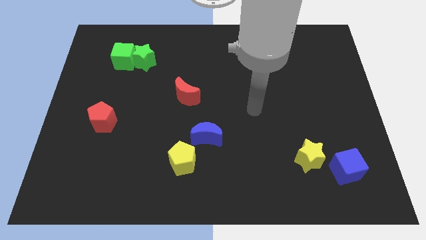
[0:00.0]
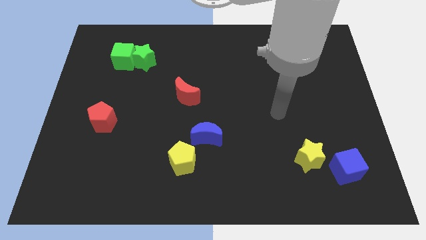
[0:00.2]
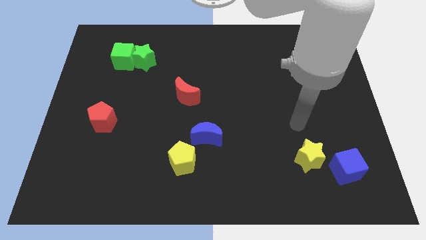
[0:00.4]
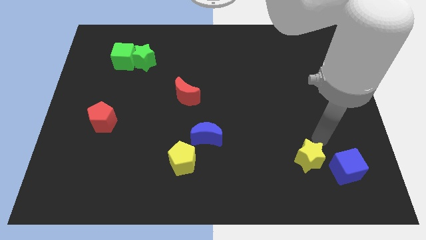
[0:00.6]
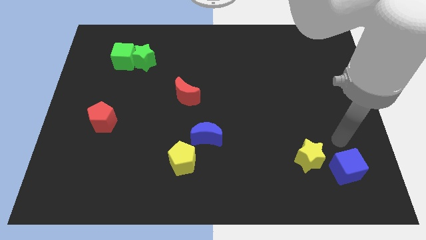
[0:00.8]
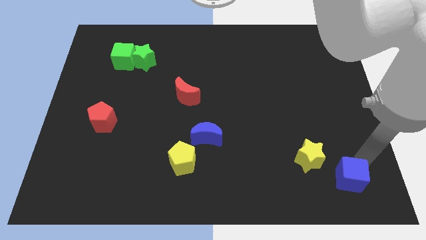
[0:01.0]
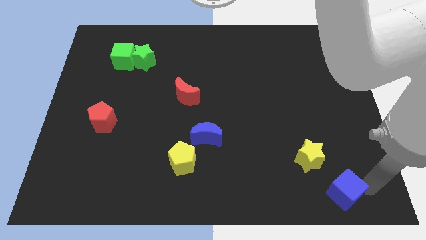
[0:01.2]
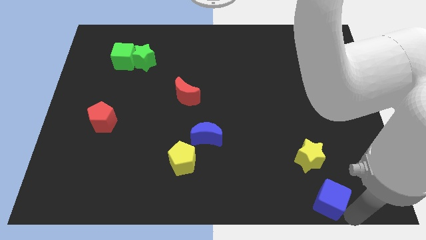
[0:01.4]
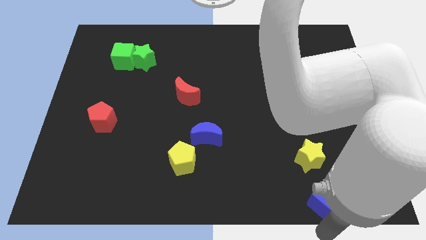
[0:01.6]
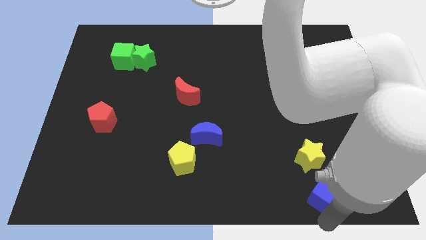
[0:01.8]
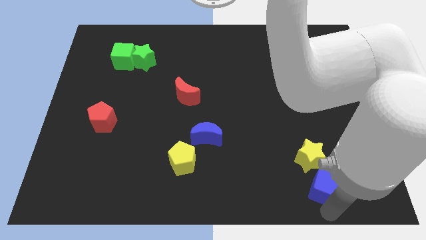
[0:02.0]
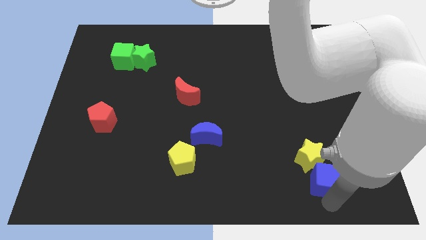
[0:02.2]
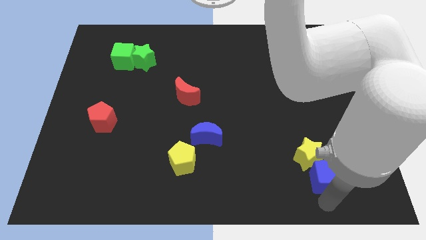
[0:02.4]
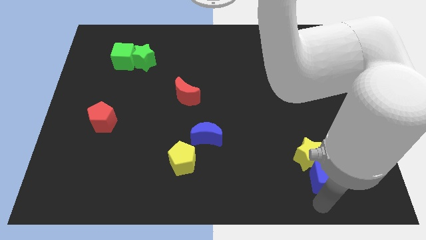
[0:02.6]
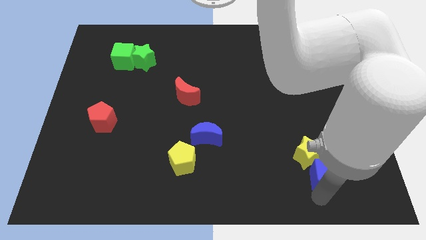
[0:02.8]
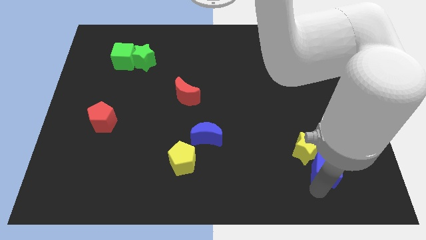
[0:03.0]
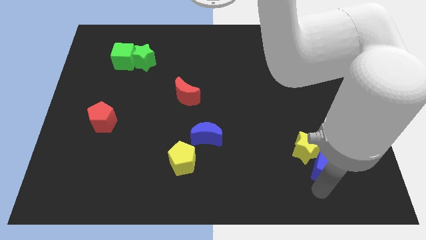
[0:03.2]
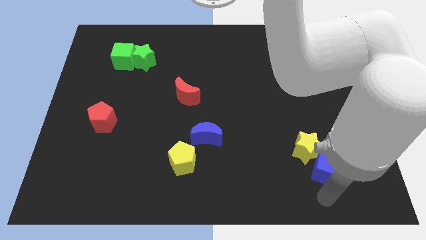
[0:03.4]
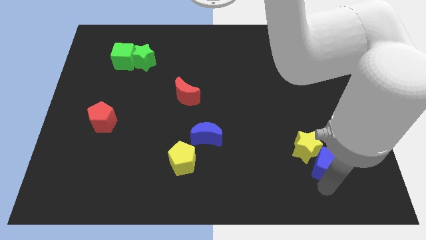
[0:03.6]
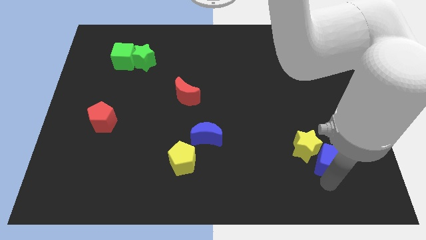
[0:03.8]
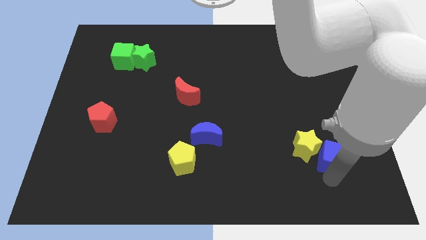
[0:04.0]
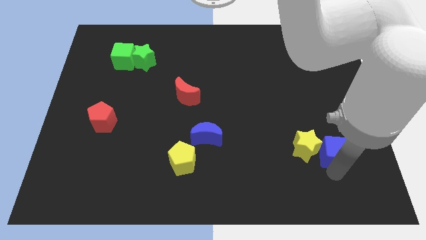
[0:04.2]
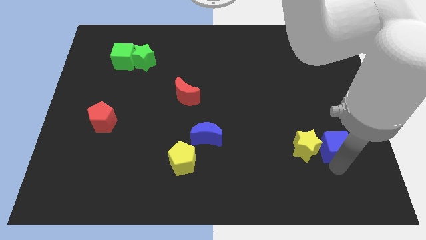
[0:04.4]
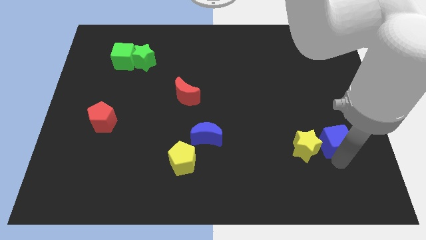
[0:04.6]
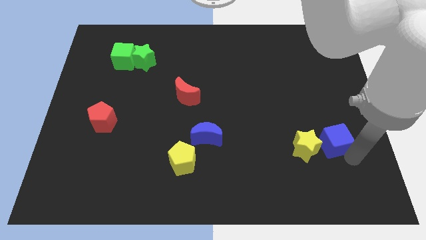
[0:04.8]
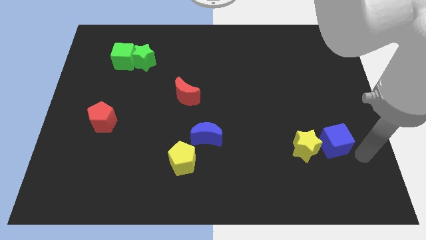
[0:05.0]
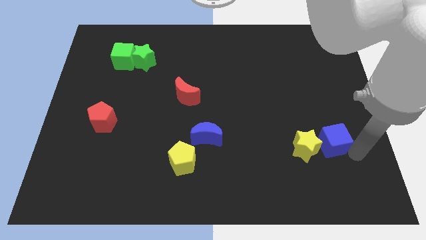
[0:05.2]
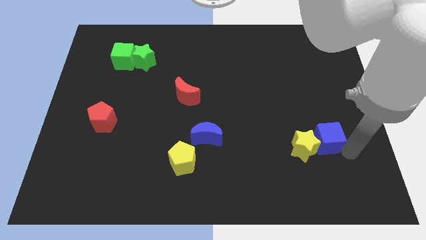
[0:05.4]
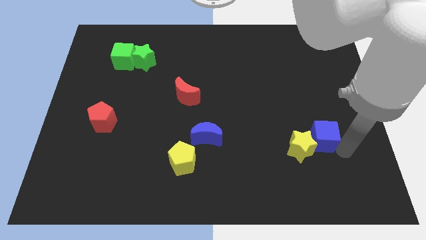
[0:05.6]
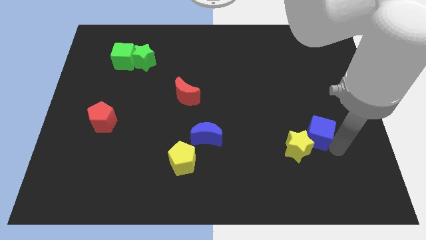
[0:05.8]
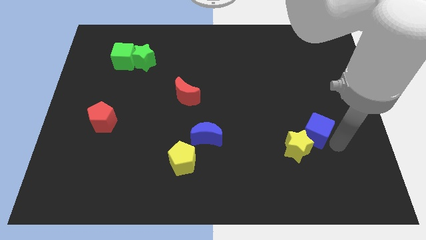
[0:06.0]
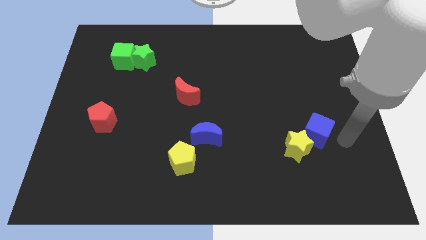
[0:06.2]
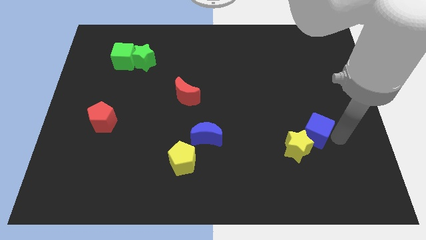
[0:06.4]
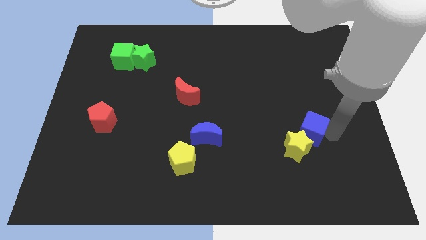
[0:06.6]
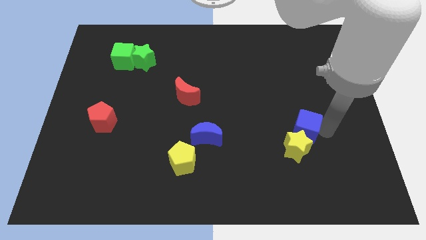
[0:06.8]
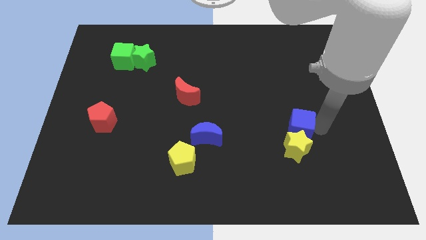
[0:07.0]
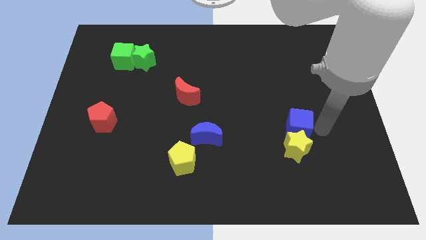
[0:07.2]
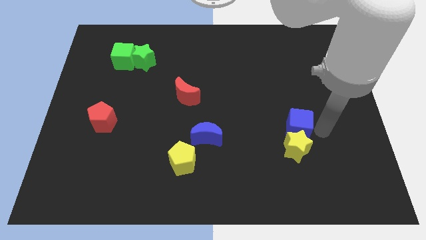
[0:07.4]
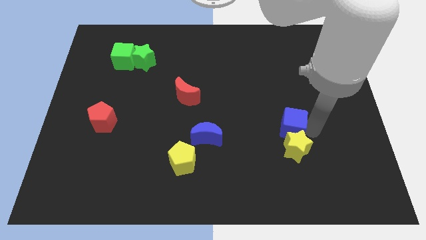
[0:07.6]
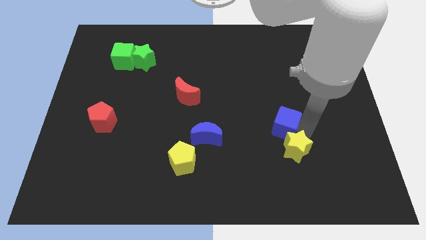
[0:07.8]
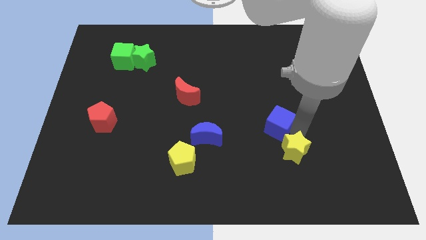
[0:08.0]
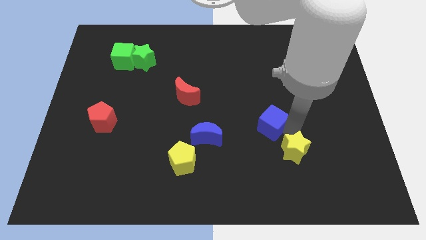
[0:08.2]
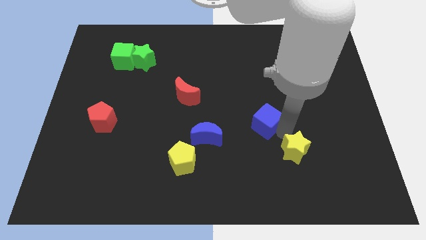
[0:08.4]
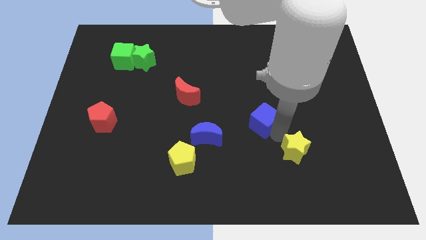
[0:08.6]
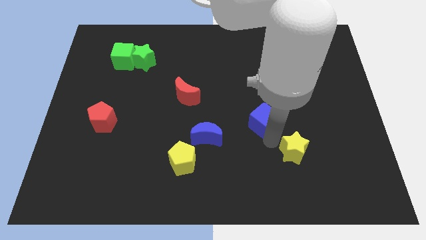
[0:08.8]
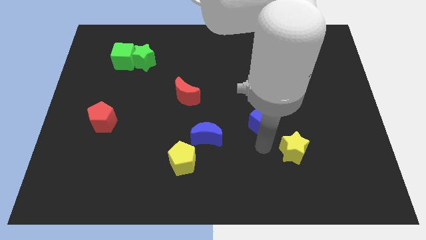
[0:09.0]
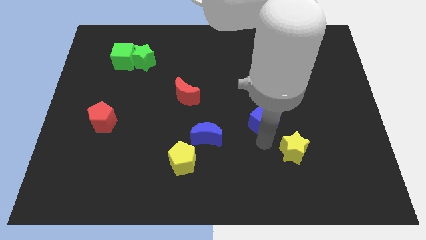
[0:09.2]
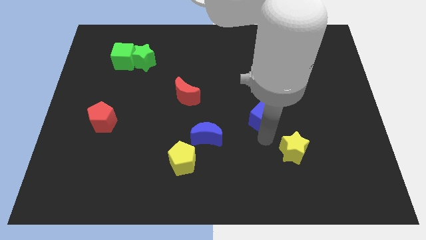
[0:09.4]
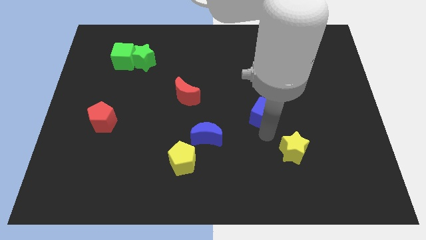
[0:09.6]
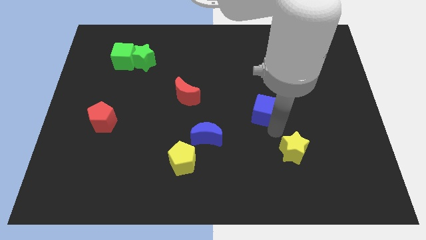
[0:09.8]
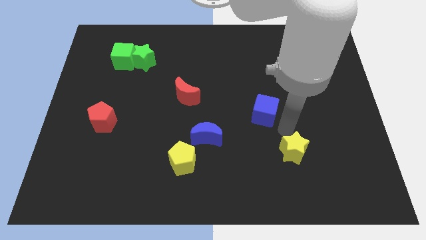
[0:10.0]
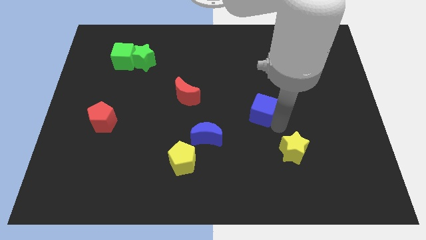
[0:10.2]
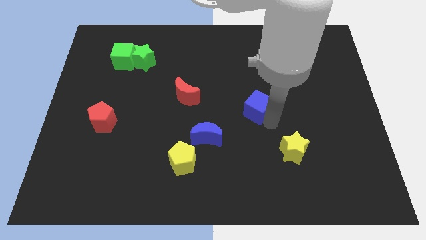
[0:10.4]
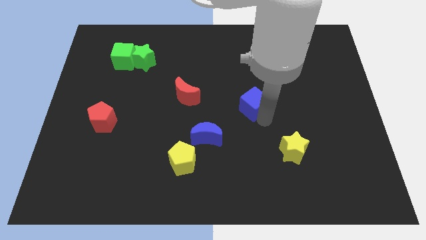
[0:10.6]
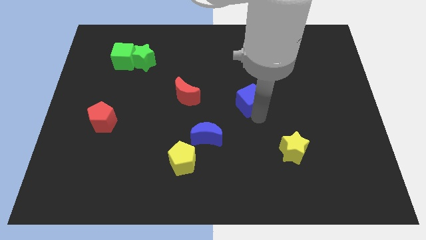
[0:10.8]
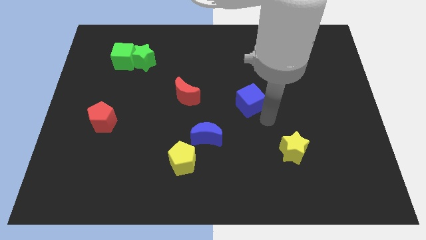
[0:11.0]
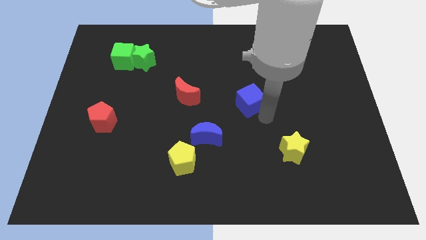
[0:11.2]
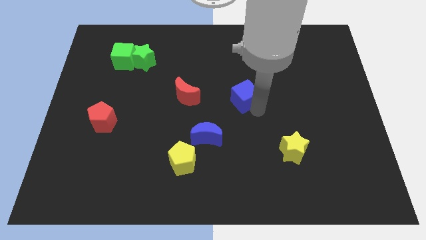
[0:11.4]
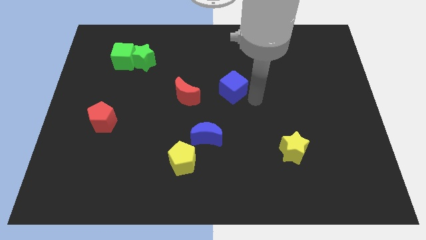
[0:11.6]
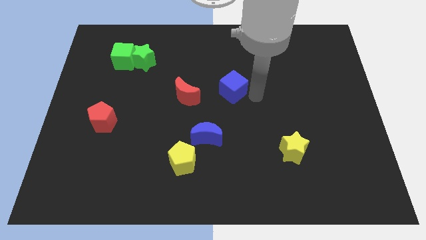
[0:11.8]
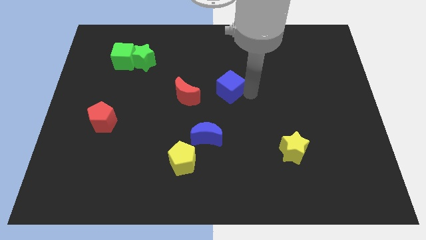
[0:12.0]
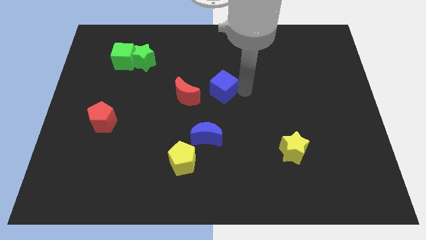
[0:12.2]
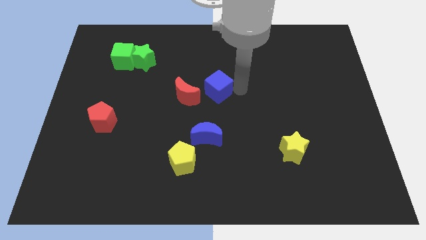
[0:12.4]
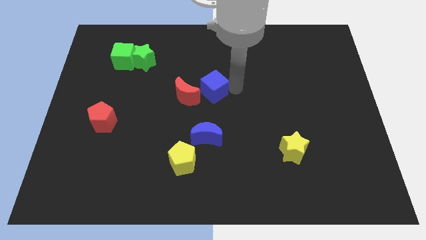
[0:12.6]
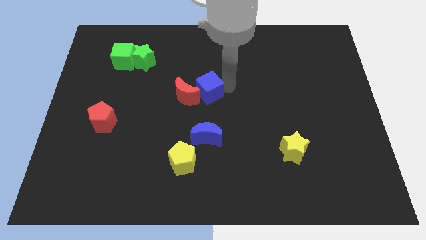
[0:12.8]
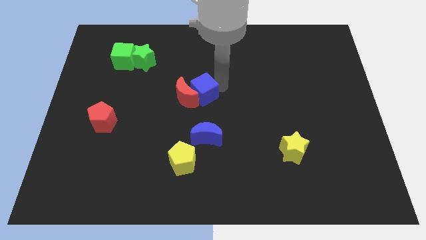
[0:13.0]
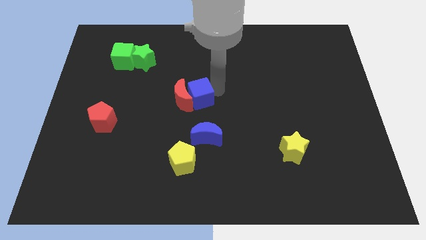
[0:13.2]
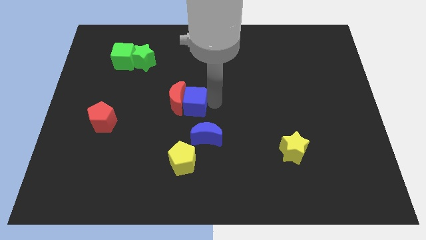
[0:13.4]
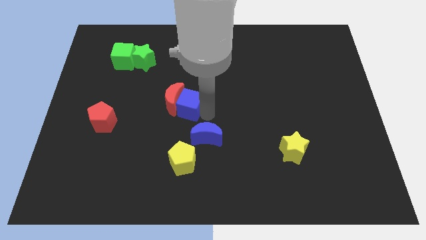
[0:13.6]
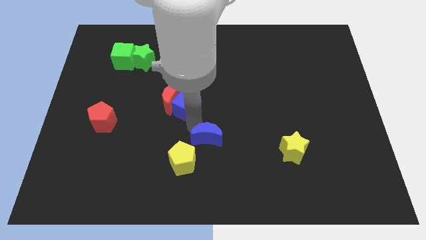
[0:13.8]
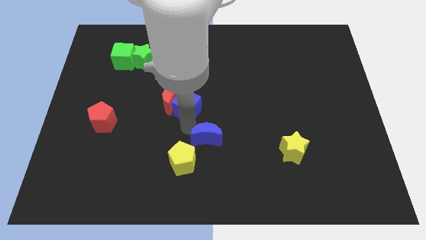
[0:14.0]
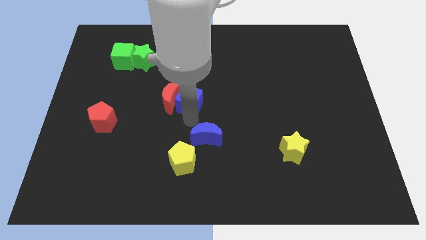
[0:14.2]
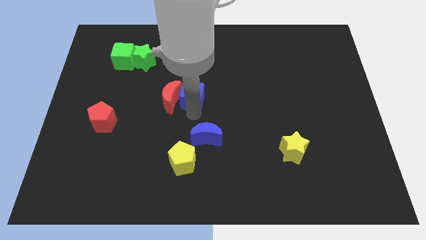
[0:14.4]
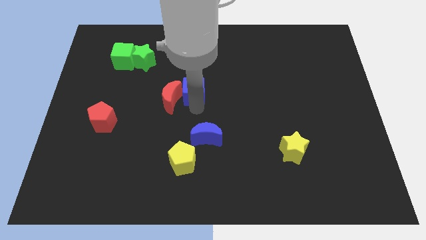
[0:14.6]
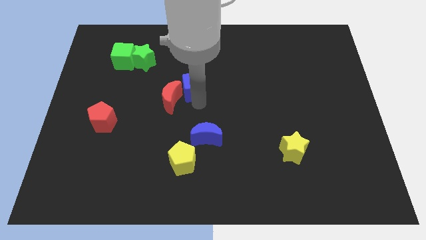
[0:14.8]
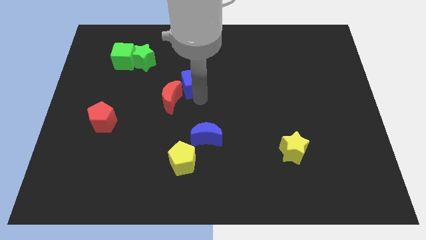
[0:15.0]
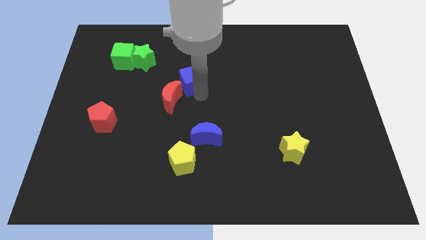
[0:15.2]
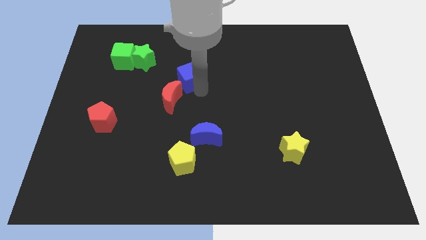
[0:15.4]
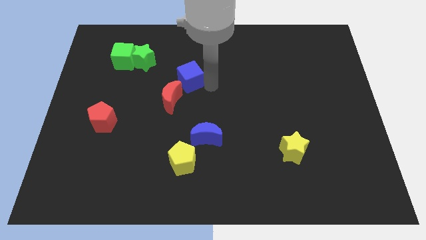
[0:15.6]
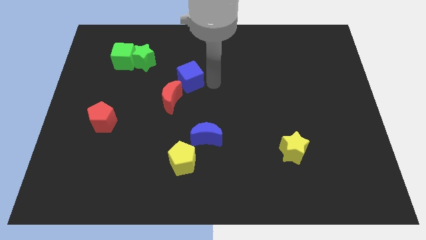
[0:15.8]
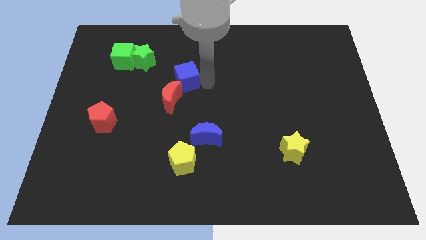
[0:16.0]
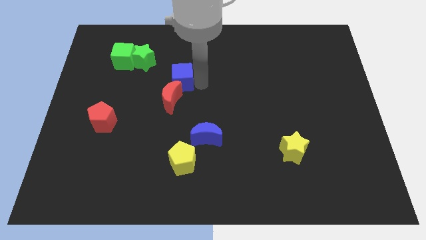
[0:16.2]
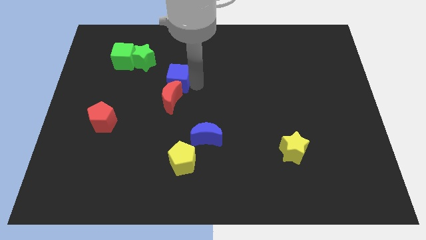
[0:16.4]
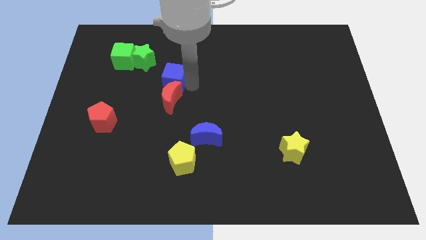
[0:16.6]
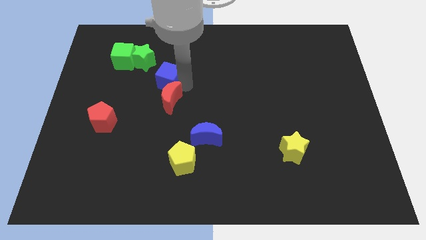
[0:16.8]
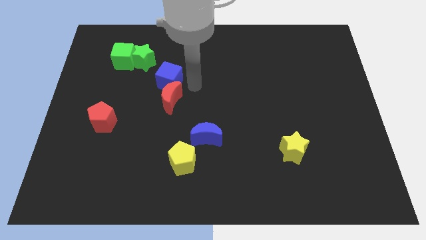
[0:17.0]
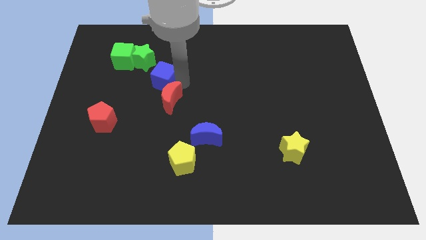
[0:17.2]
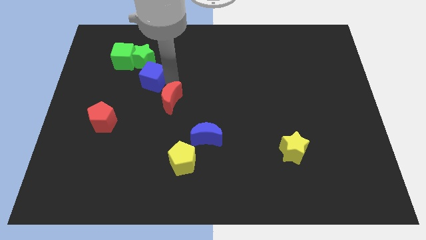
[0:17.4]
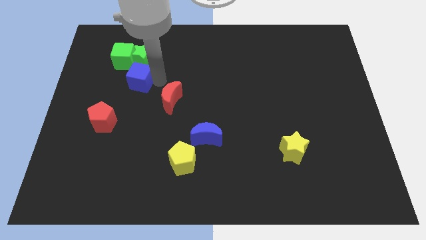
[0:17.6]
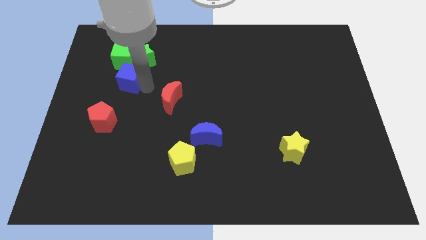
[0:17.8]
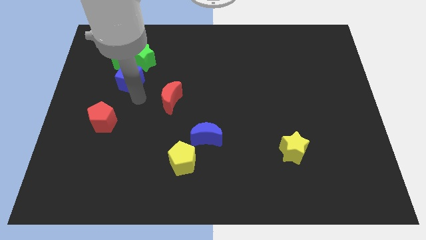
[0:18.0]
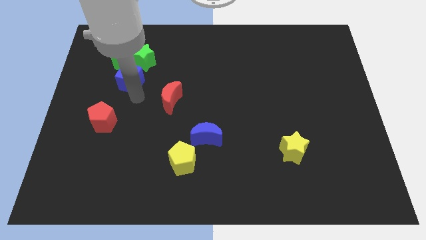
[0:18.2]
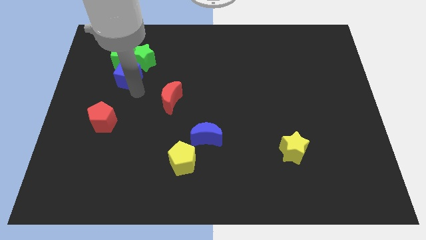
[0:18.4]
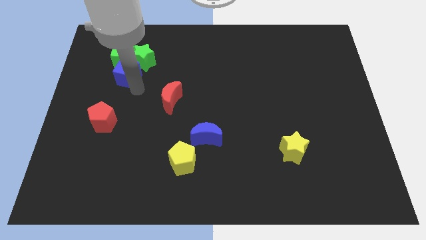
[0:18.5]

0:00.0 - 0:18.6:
put the blue cube towards the green cube
